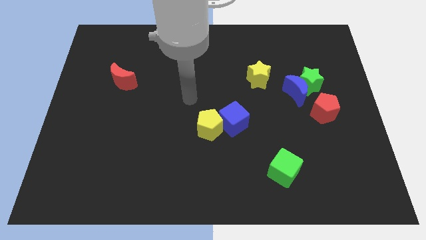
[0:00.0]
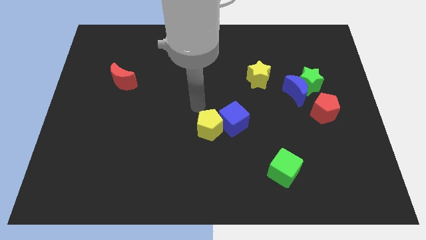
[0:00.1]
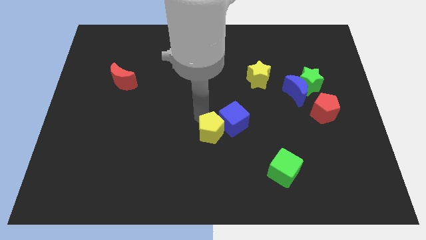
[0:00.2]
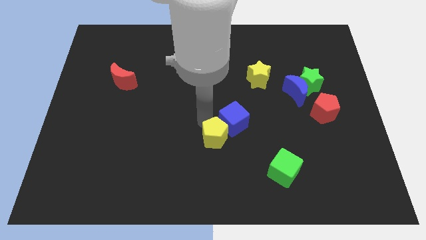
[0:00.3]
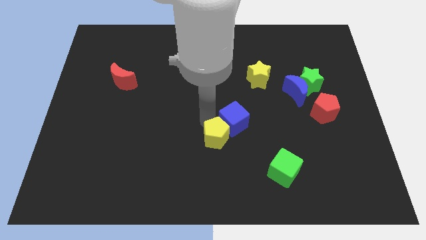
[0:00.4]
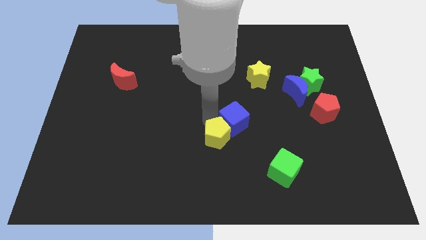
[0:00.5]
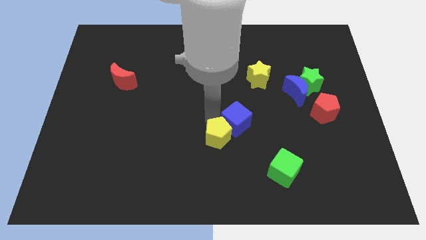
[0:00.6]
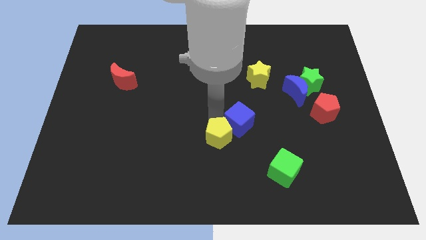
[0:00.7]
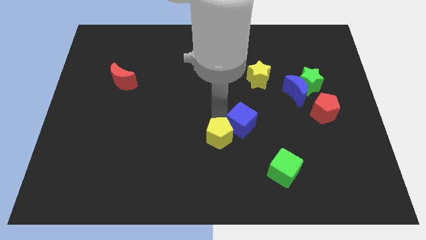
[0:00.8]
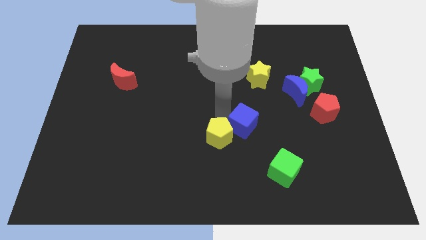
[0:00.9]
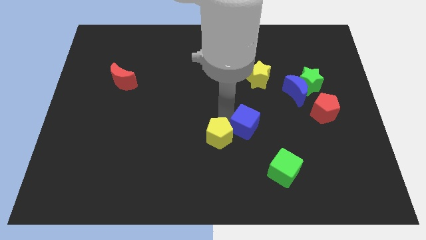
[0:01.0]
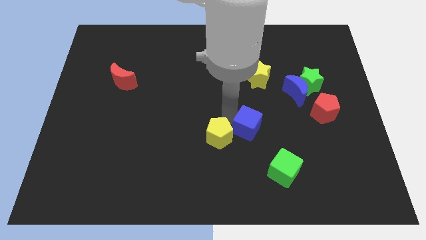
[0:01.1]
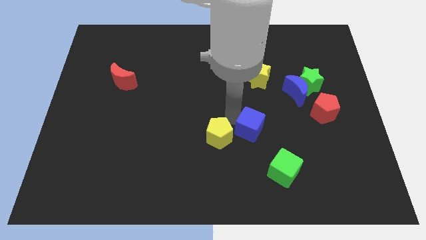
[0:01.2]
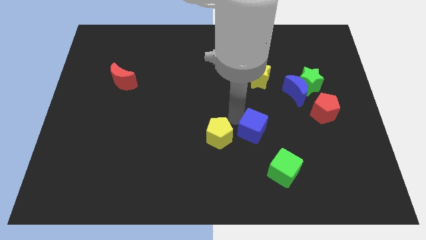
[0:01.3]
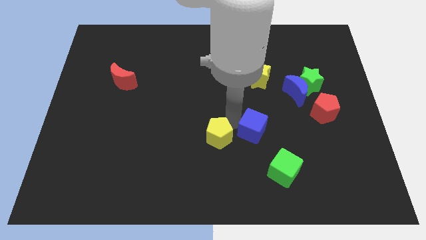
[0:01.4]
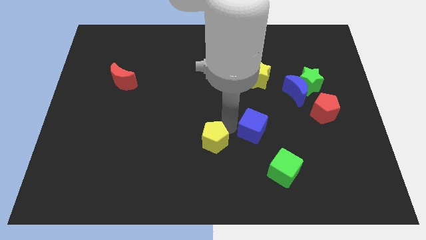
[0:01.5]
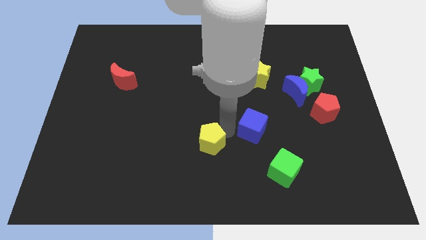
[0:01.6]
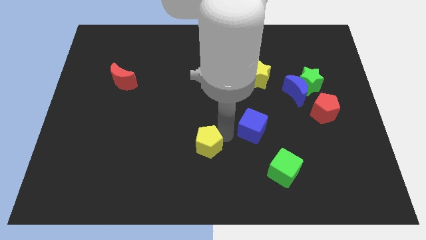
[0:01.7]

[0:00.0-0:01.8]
separate the blue cube from the yellow pentagon

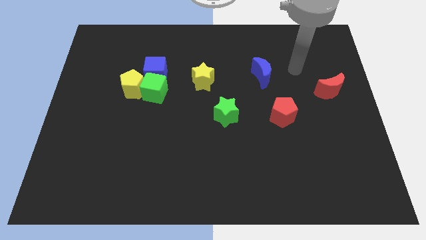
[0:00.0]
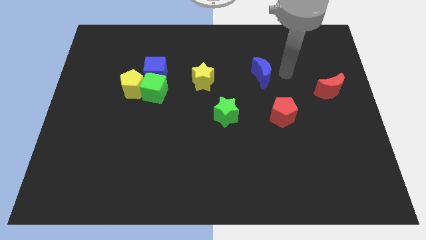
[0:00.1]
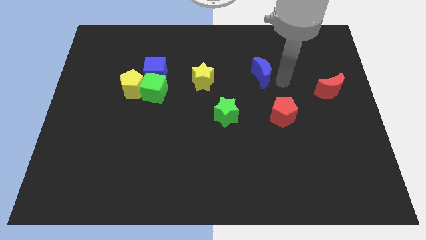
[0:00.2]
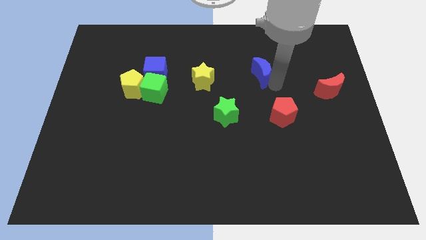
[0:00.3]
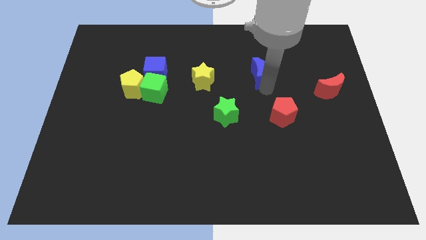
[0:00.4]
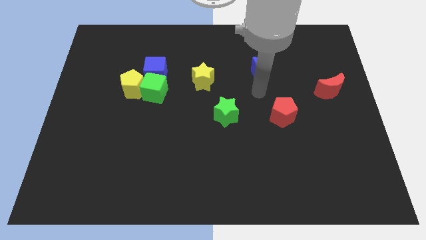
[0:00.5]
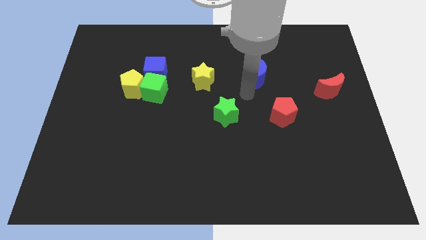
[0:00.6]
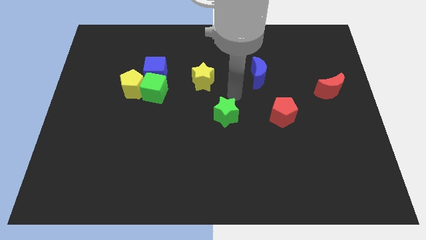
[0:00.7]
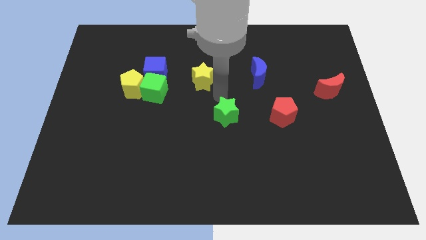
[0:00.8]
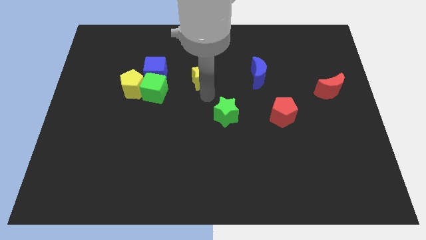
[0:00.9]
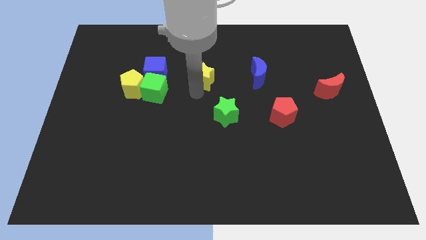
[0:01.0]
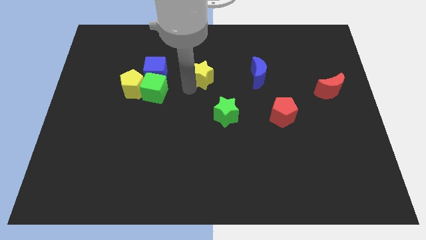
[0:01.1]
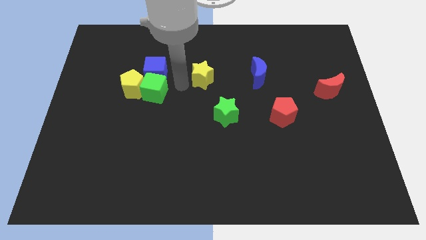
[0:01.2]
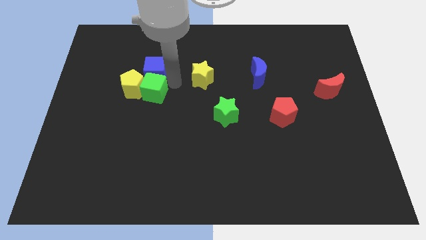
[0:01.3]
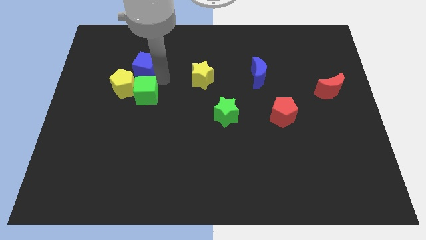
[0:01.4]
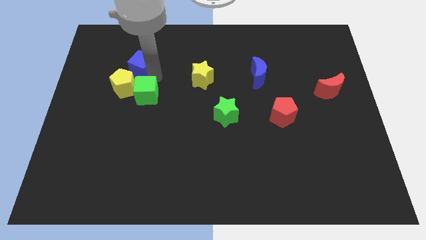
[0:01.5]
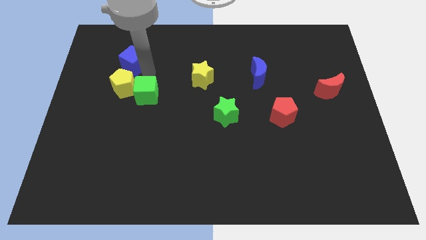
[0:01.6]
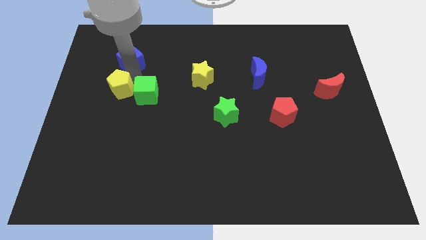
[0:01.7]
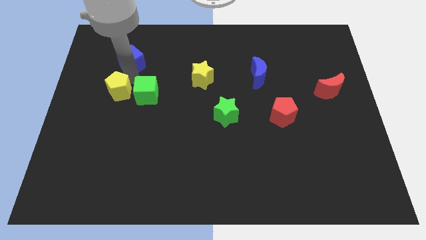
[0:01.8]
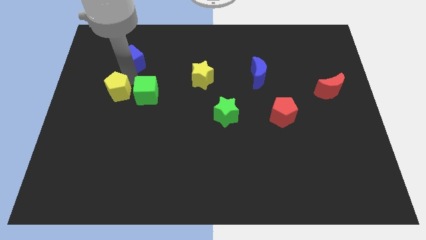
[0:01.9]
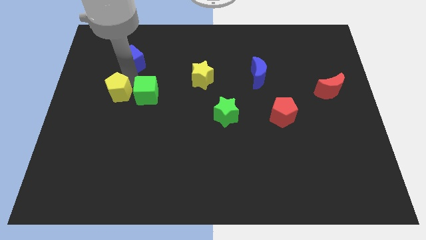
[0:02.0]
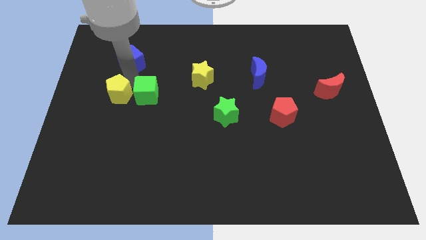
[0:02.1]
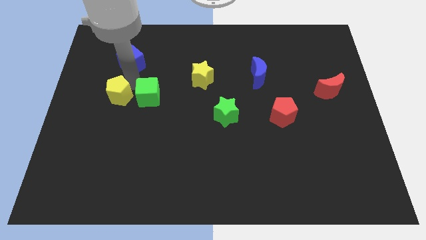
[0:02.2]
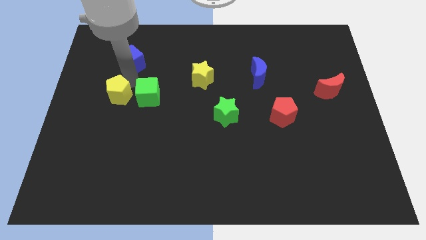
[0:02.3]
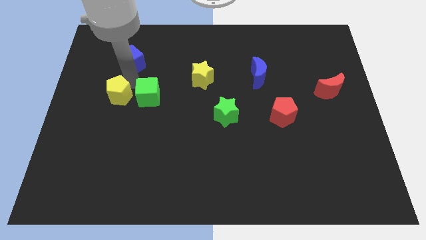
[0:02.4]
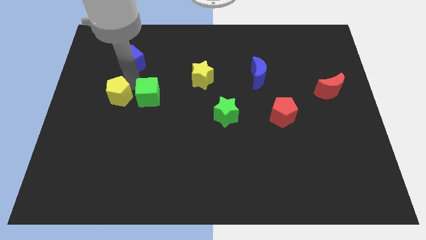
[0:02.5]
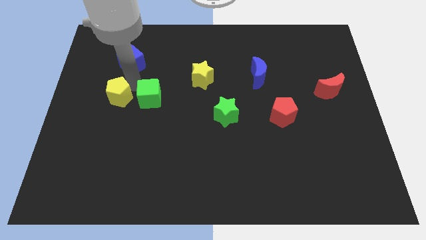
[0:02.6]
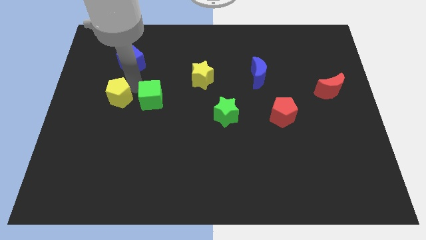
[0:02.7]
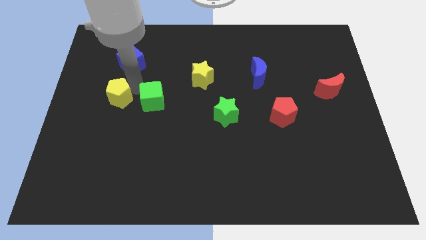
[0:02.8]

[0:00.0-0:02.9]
separate the green cube from the yellow pentagon and blue cube

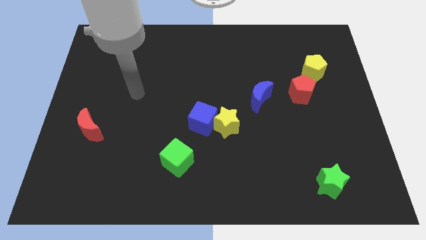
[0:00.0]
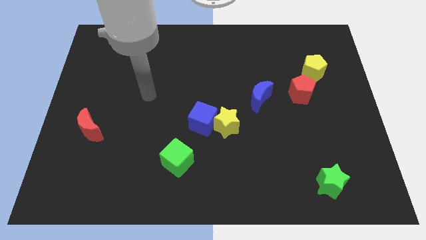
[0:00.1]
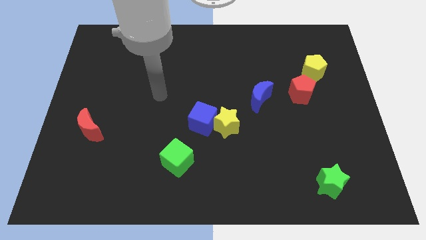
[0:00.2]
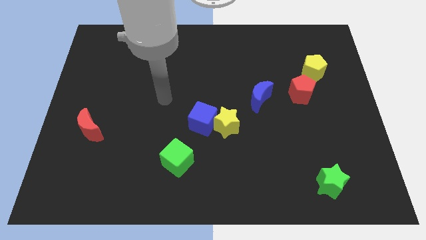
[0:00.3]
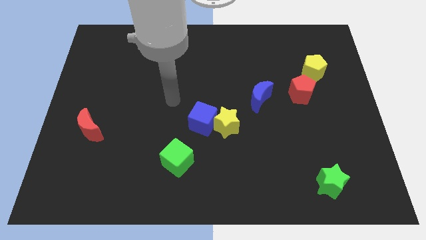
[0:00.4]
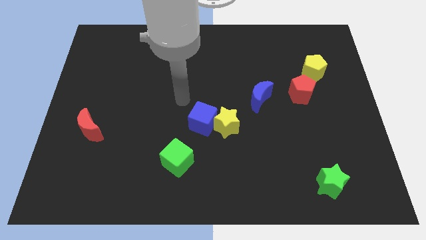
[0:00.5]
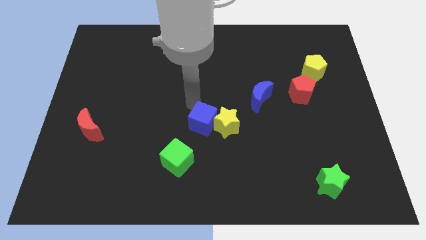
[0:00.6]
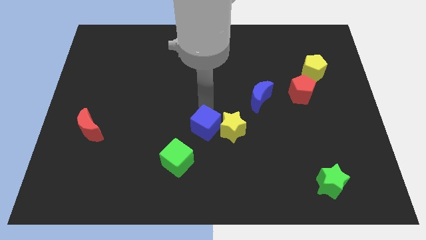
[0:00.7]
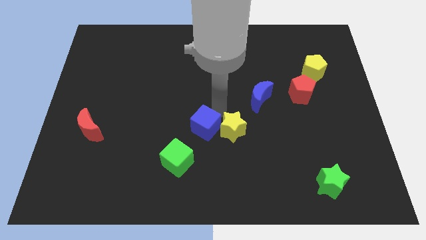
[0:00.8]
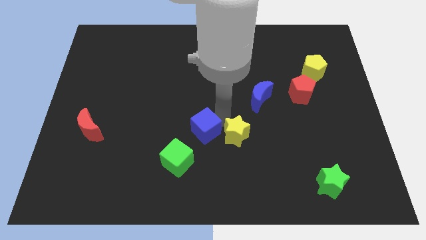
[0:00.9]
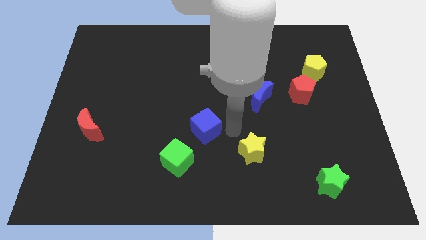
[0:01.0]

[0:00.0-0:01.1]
pull the blue cube apart from the yellow star

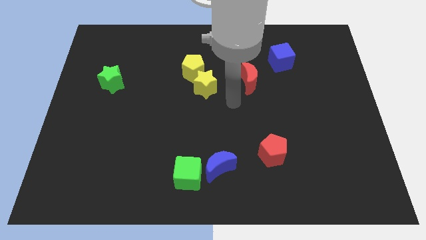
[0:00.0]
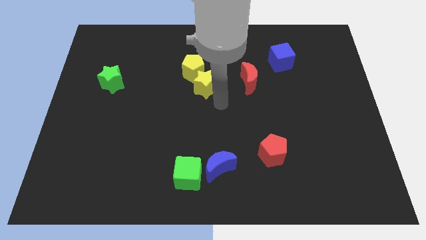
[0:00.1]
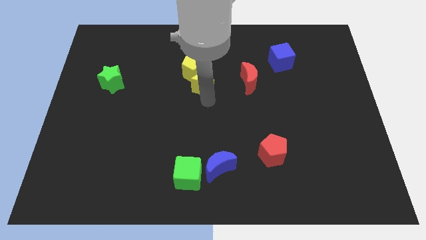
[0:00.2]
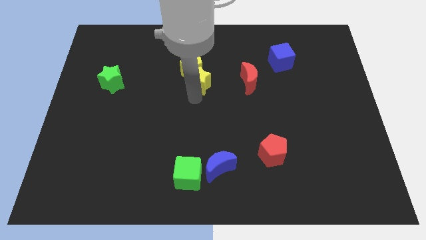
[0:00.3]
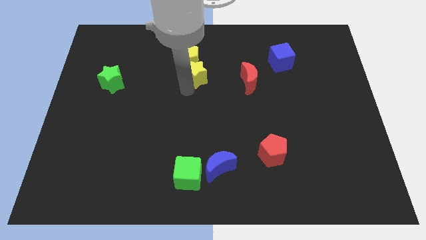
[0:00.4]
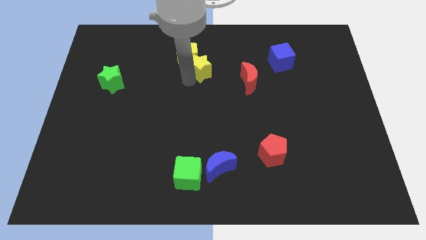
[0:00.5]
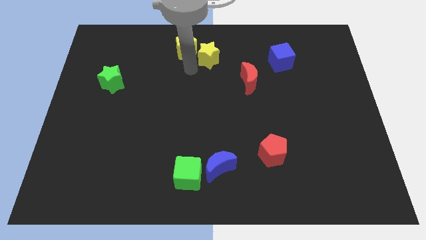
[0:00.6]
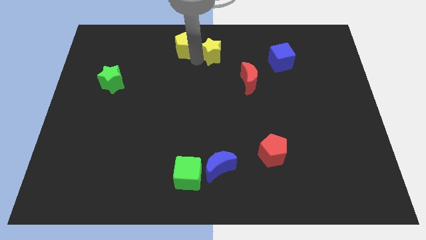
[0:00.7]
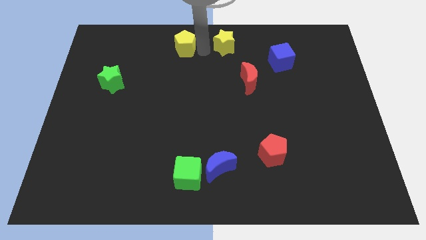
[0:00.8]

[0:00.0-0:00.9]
pull the yellow star apart from the yellow pentagon

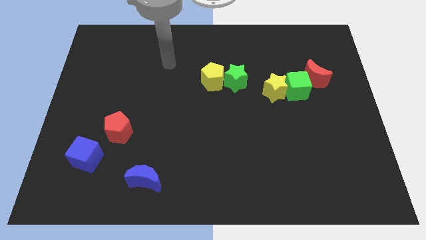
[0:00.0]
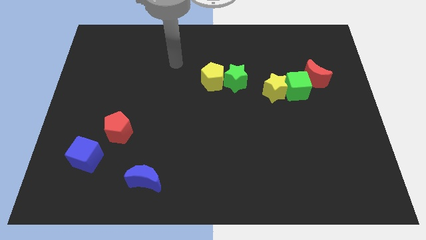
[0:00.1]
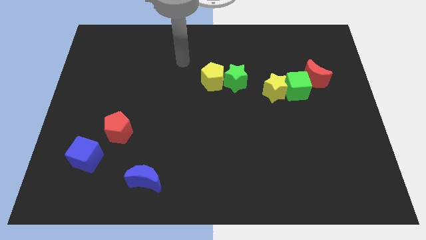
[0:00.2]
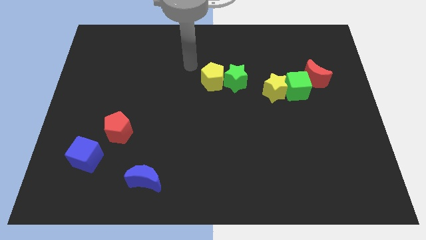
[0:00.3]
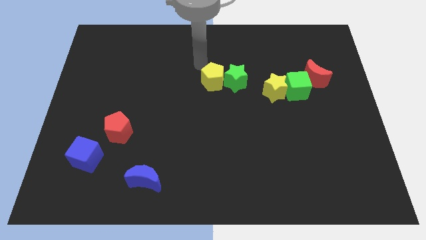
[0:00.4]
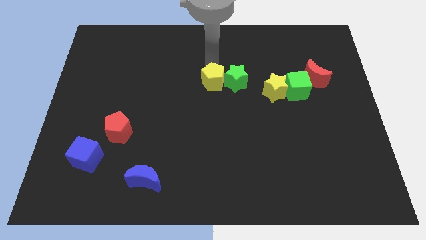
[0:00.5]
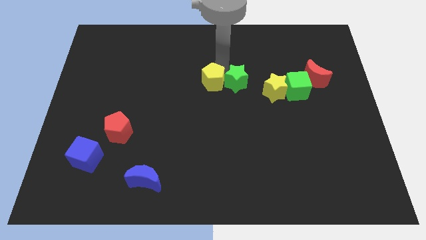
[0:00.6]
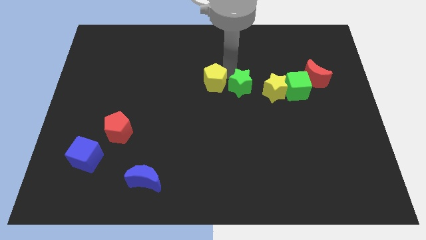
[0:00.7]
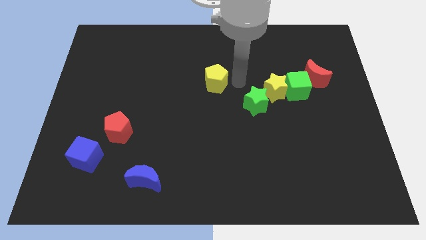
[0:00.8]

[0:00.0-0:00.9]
separate the yellow pentagon from the green star

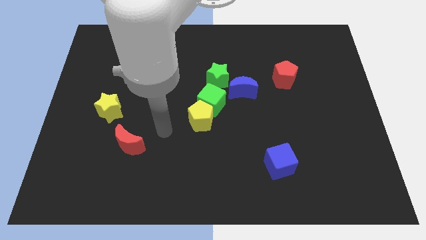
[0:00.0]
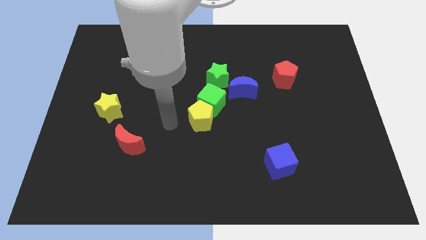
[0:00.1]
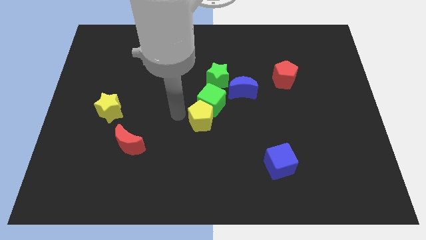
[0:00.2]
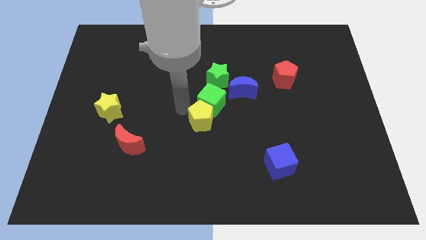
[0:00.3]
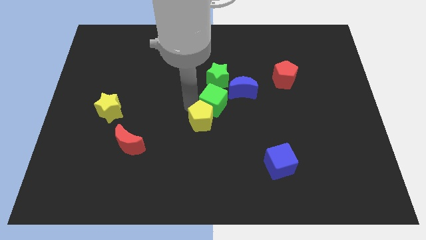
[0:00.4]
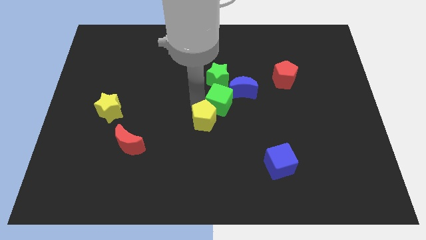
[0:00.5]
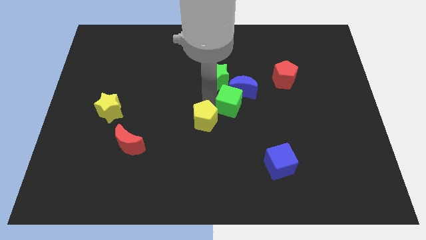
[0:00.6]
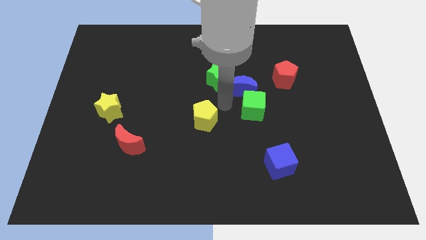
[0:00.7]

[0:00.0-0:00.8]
move the yellow pentagon away from the green cube

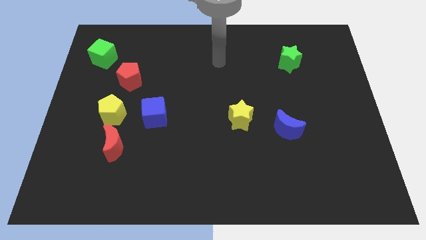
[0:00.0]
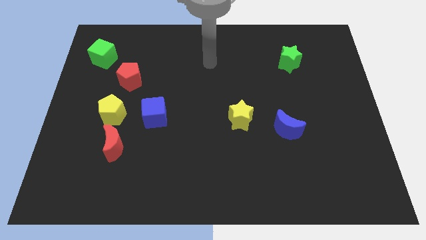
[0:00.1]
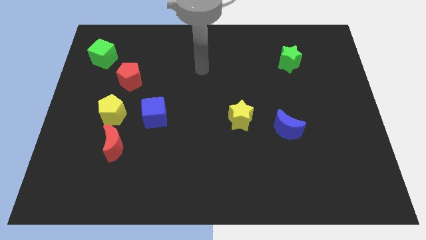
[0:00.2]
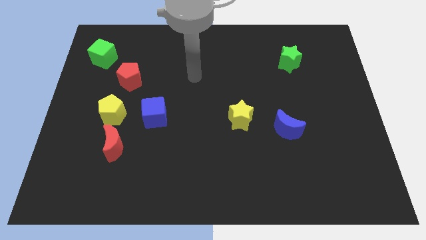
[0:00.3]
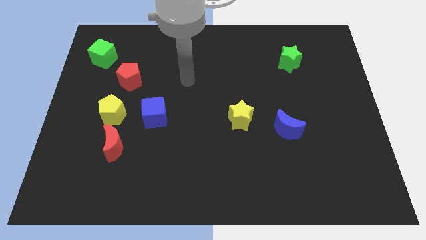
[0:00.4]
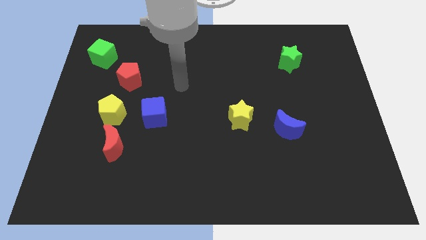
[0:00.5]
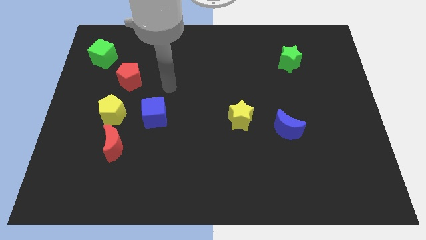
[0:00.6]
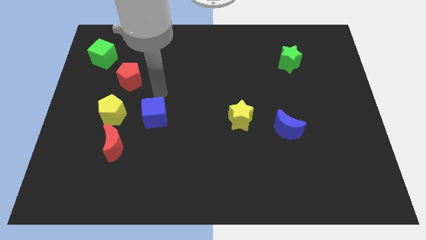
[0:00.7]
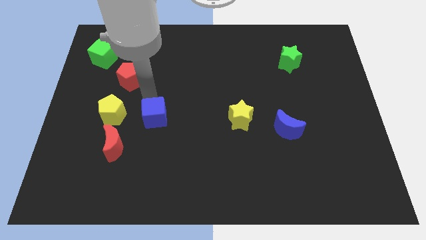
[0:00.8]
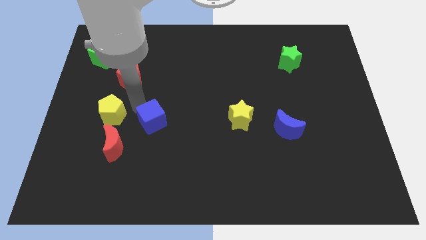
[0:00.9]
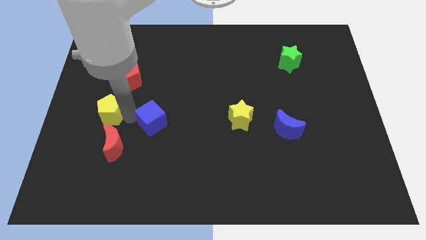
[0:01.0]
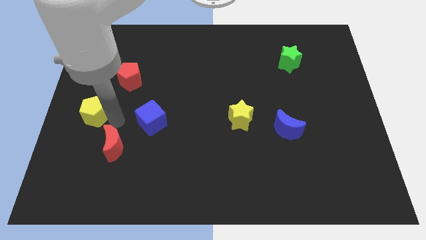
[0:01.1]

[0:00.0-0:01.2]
move the red moon away from the yellow pentagon
